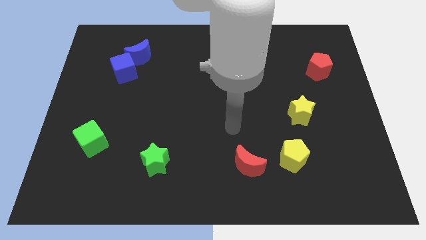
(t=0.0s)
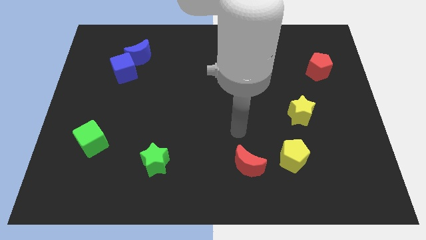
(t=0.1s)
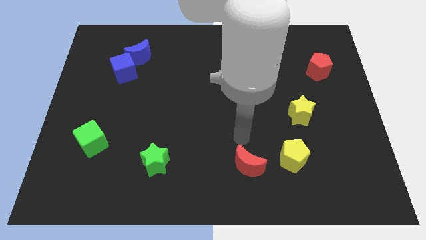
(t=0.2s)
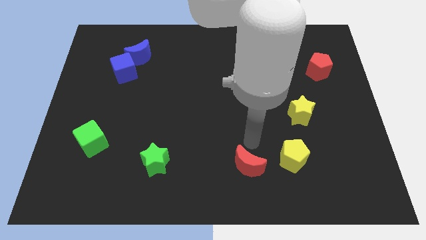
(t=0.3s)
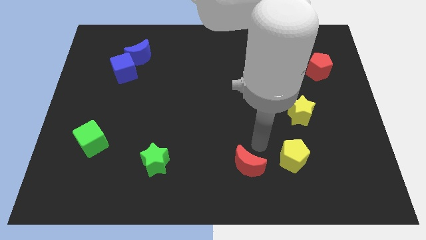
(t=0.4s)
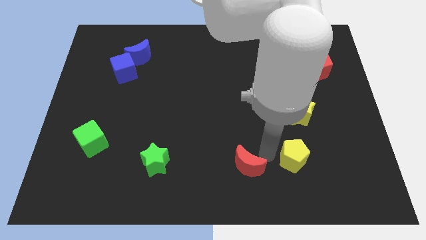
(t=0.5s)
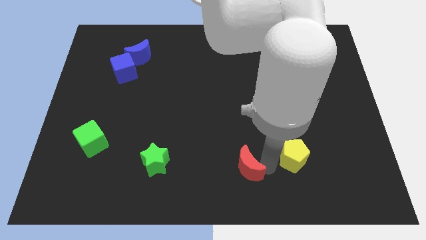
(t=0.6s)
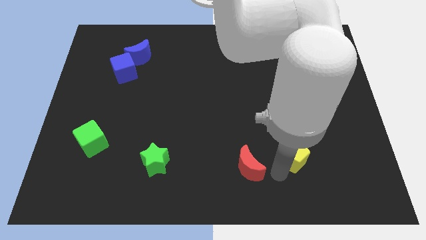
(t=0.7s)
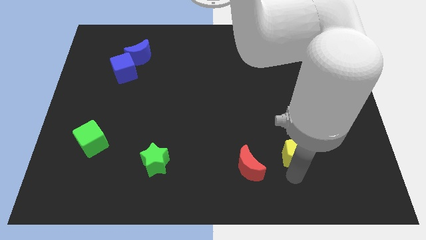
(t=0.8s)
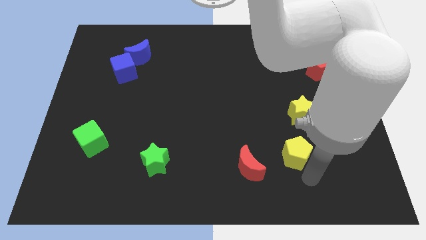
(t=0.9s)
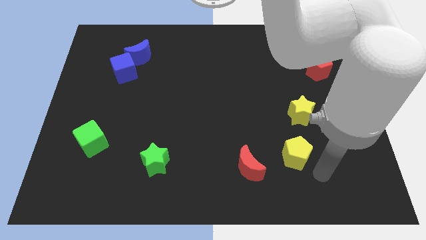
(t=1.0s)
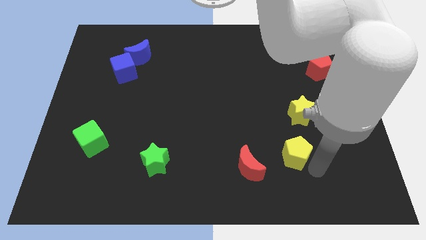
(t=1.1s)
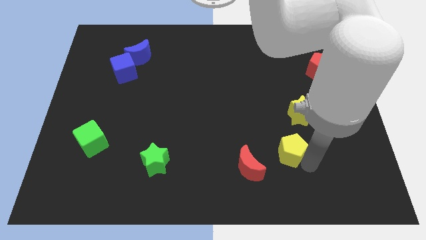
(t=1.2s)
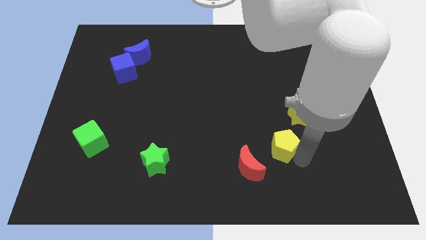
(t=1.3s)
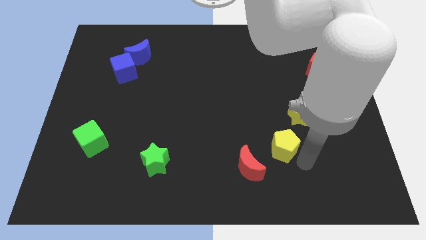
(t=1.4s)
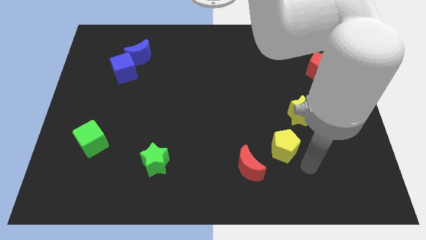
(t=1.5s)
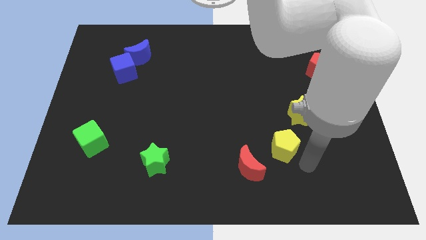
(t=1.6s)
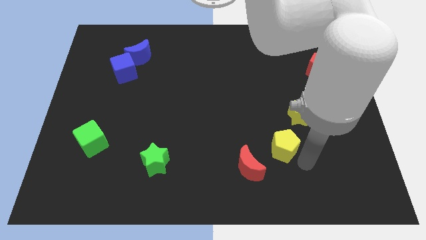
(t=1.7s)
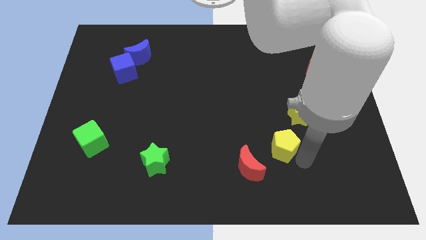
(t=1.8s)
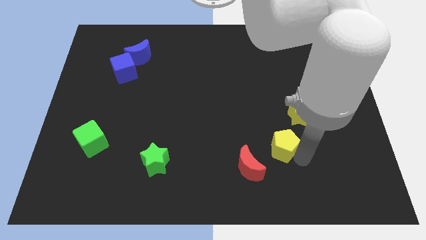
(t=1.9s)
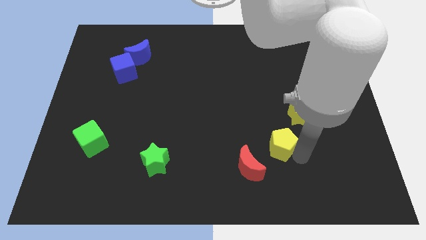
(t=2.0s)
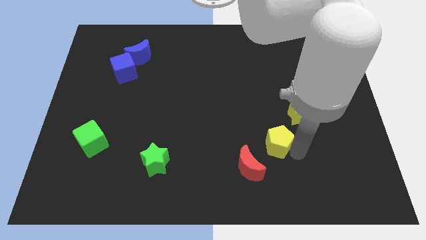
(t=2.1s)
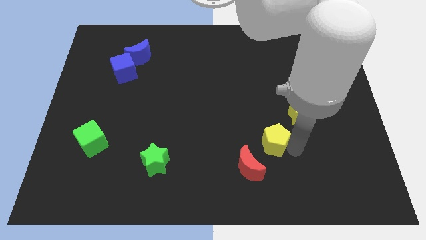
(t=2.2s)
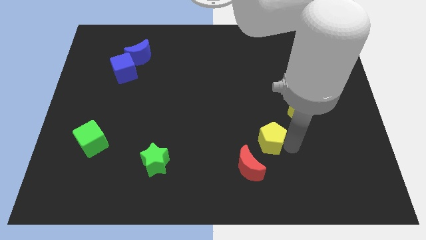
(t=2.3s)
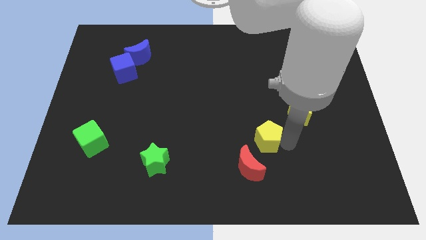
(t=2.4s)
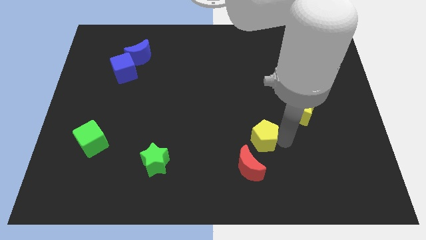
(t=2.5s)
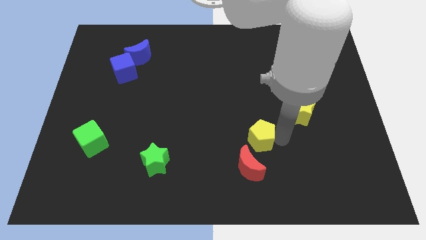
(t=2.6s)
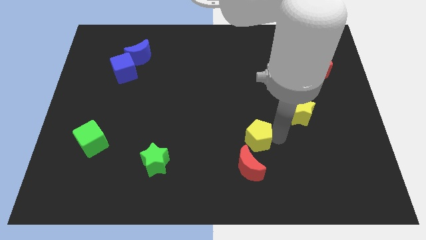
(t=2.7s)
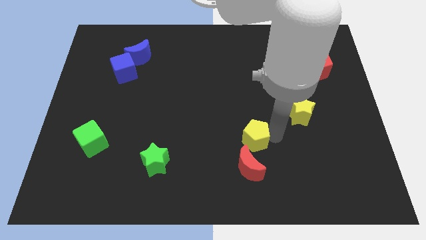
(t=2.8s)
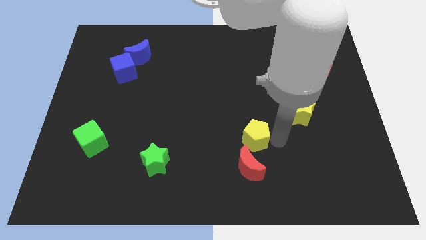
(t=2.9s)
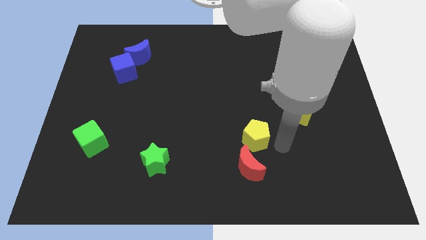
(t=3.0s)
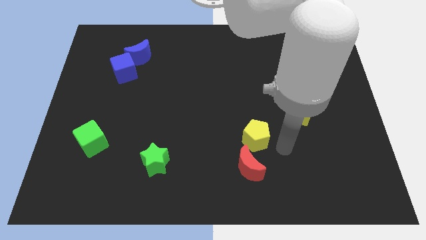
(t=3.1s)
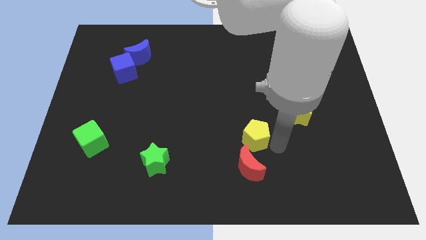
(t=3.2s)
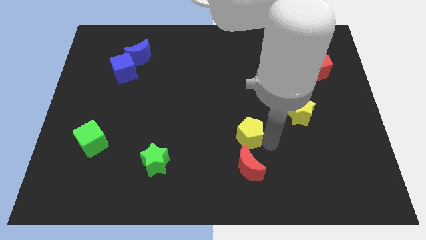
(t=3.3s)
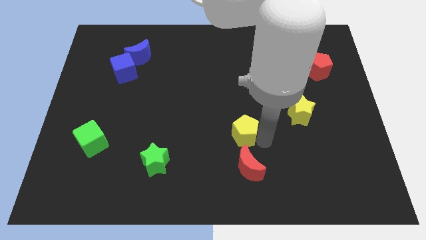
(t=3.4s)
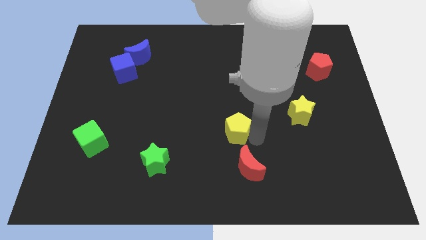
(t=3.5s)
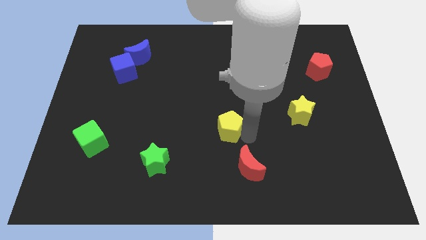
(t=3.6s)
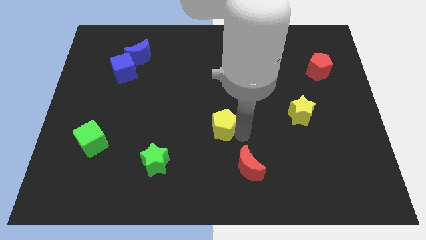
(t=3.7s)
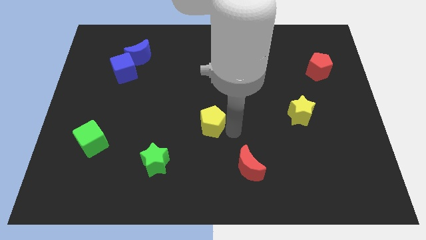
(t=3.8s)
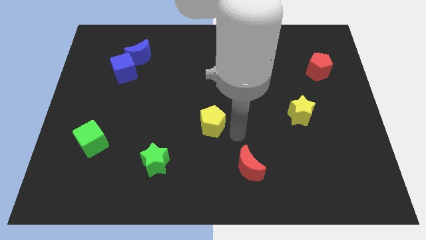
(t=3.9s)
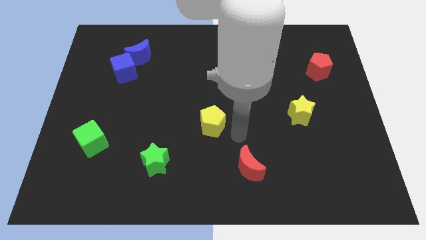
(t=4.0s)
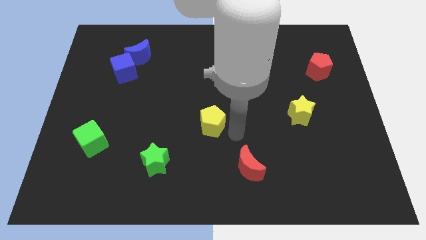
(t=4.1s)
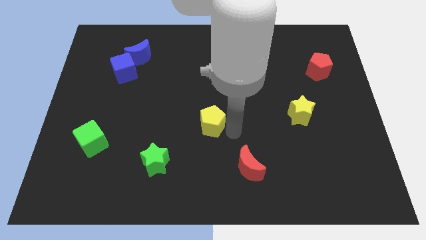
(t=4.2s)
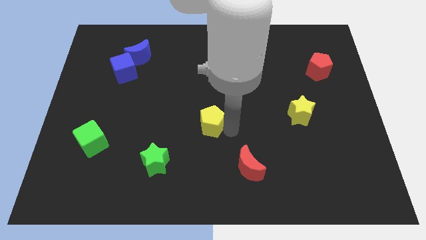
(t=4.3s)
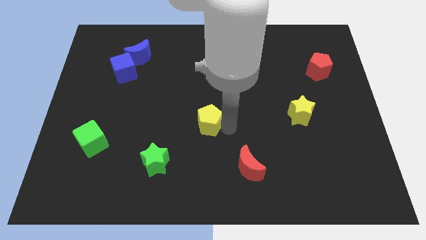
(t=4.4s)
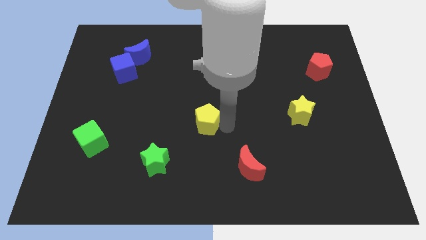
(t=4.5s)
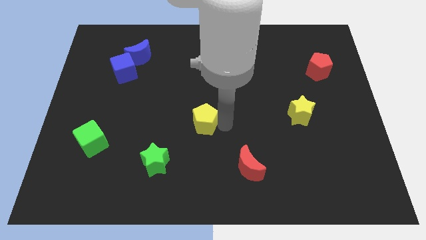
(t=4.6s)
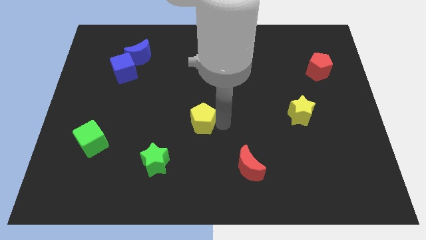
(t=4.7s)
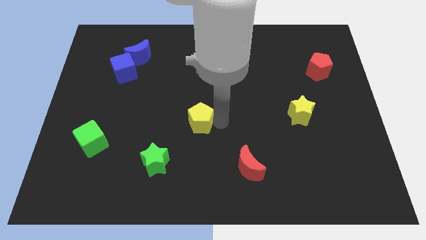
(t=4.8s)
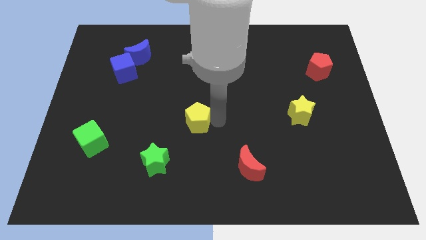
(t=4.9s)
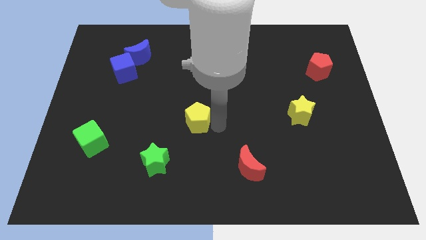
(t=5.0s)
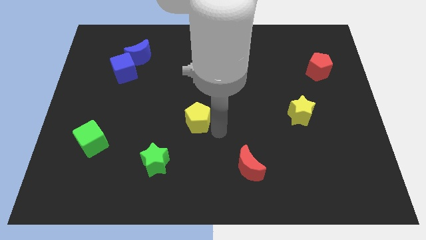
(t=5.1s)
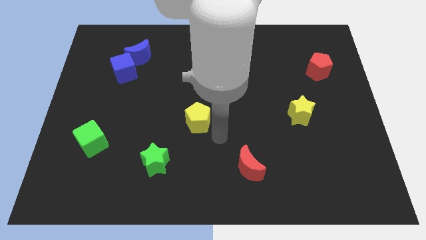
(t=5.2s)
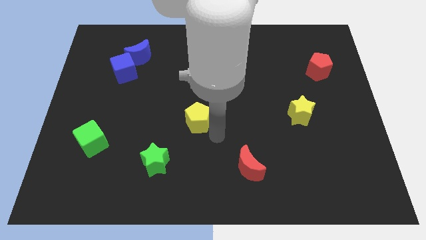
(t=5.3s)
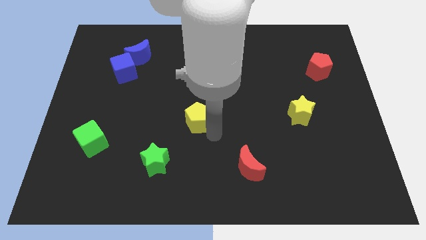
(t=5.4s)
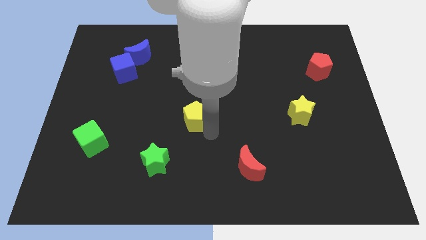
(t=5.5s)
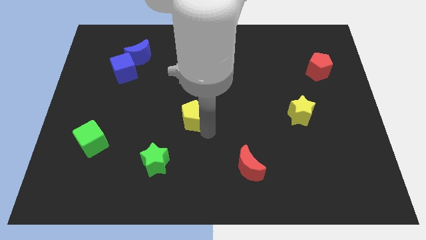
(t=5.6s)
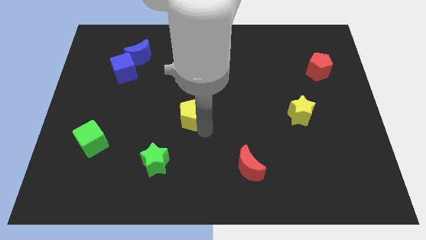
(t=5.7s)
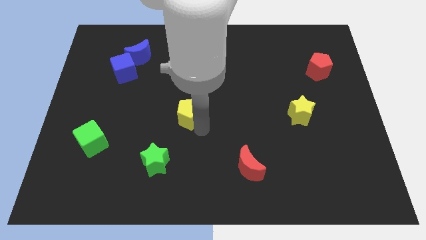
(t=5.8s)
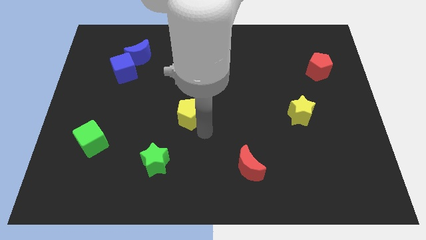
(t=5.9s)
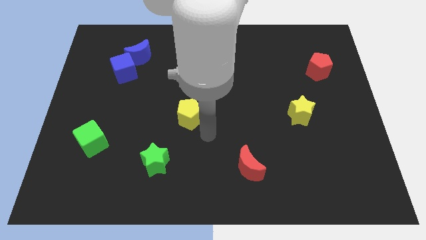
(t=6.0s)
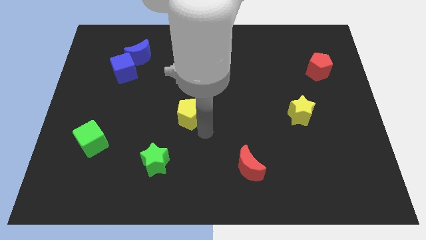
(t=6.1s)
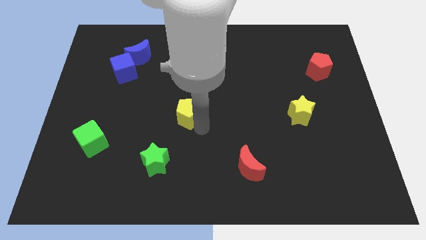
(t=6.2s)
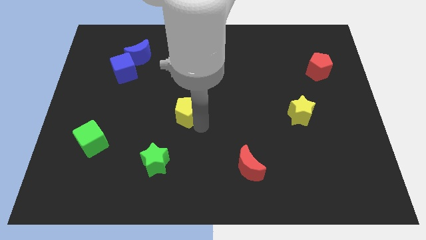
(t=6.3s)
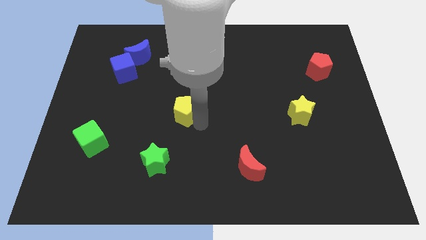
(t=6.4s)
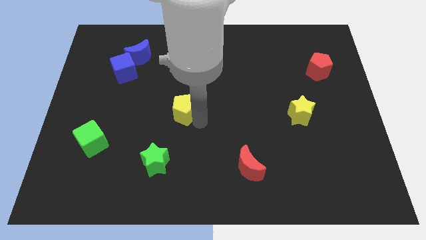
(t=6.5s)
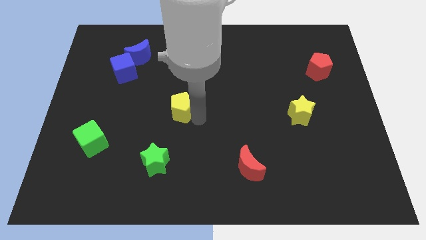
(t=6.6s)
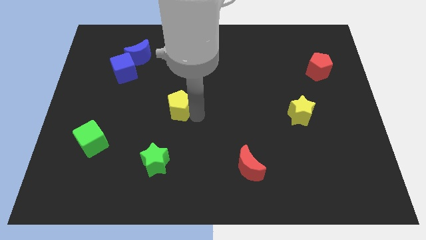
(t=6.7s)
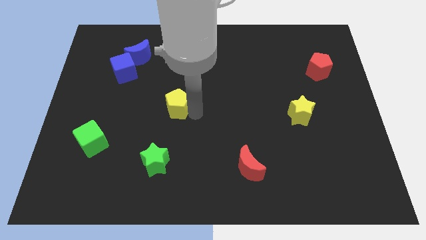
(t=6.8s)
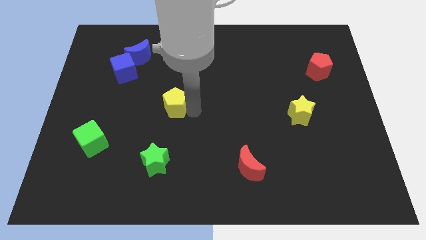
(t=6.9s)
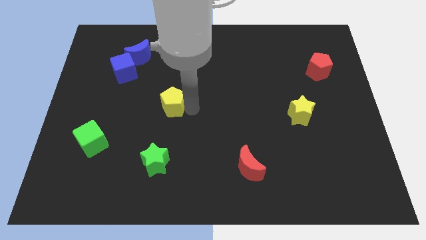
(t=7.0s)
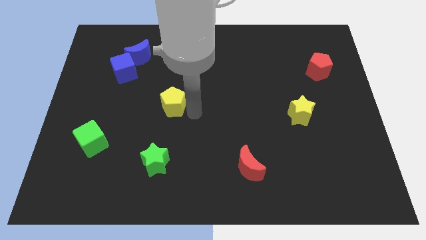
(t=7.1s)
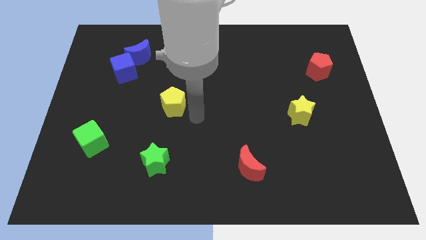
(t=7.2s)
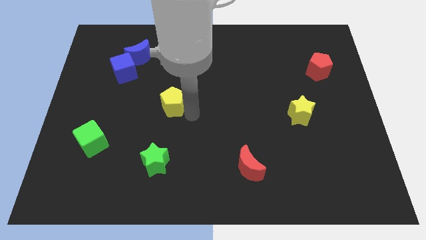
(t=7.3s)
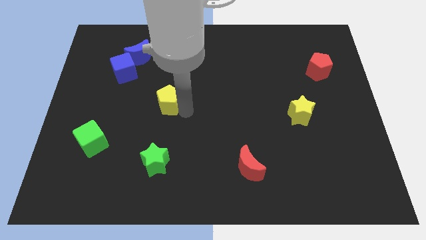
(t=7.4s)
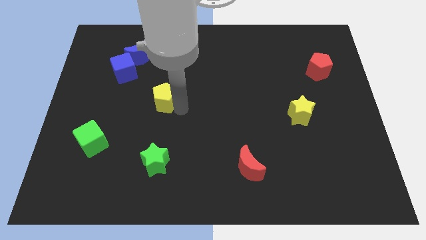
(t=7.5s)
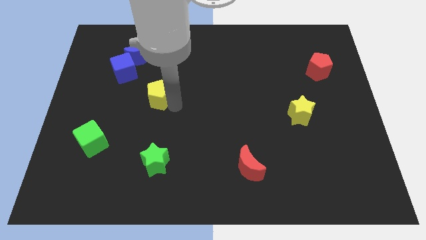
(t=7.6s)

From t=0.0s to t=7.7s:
move the yellow pentagon to the bottom right of the blue cube
